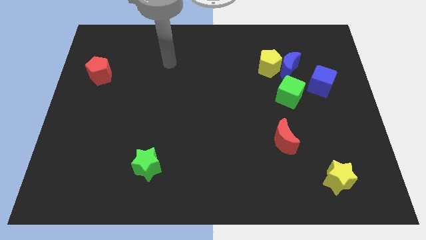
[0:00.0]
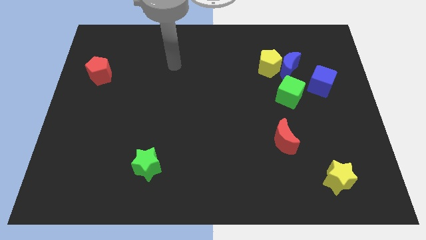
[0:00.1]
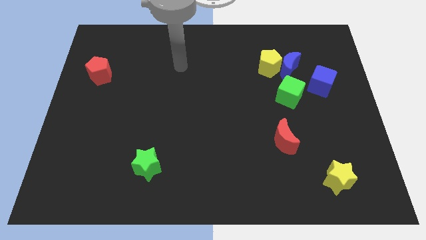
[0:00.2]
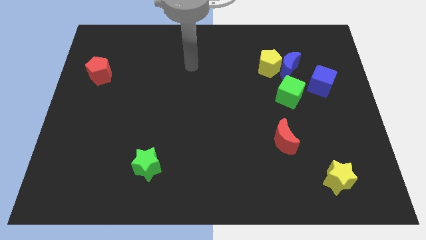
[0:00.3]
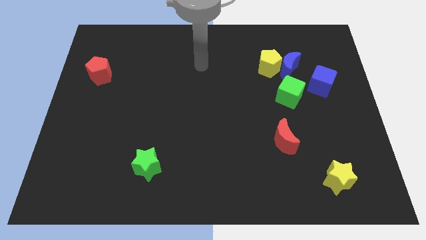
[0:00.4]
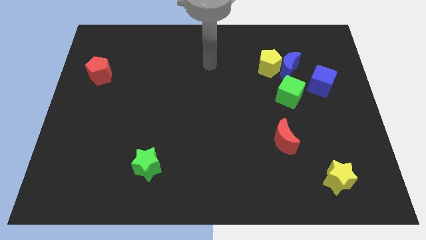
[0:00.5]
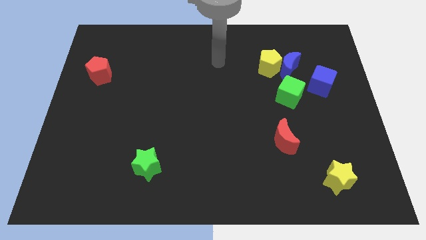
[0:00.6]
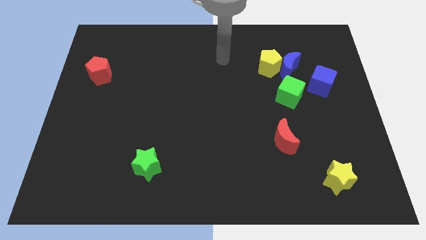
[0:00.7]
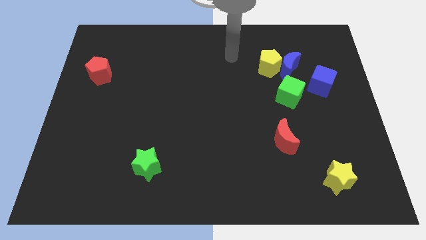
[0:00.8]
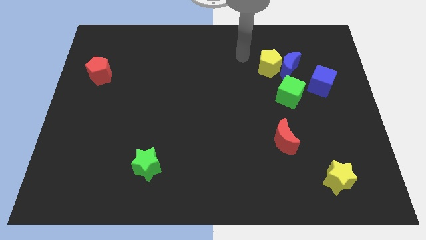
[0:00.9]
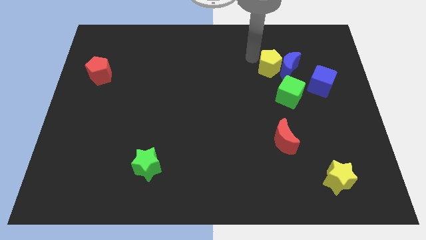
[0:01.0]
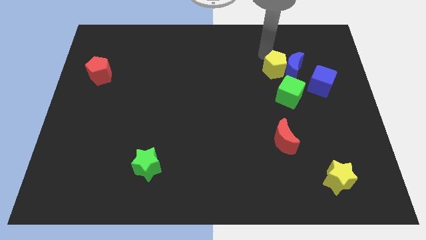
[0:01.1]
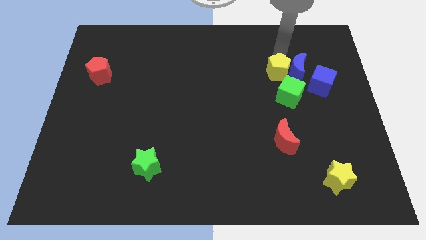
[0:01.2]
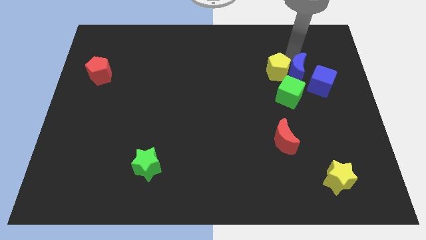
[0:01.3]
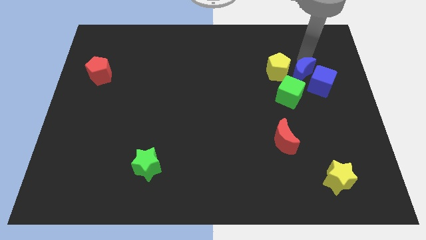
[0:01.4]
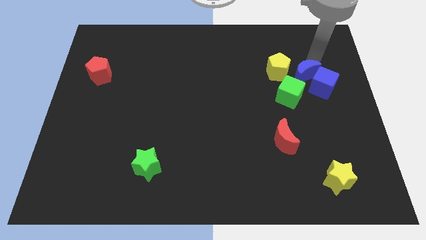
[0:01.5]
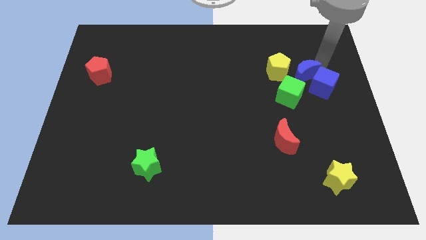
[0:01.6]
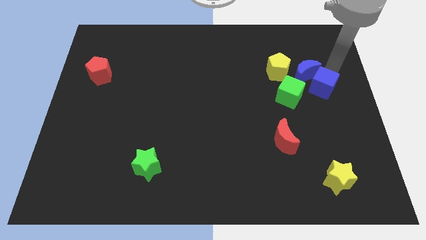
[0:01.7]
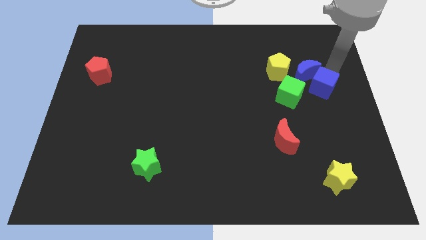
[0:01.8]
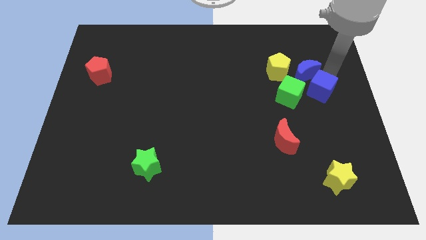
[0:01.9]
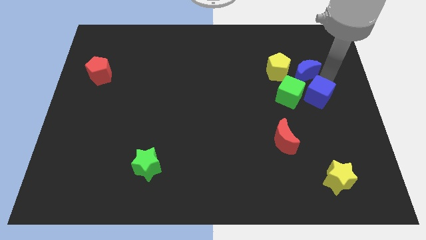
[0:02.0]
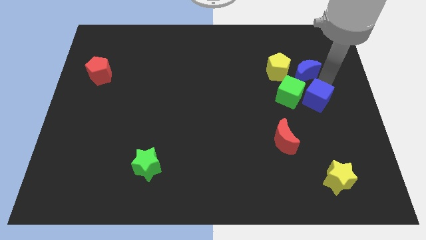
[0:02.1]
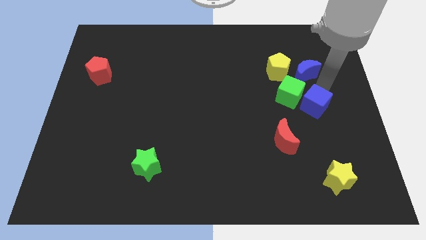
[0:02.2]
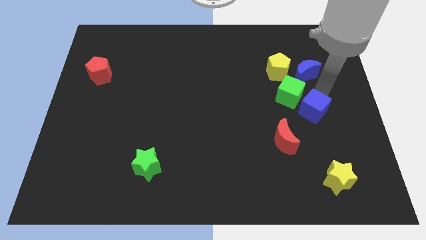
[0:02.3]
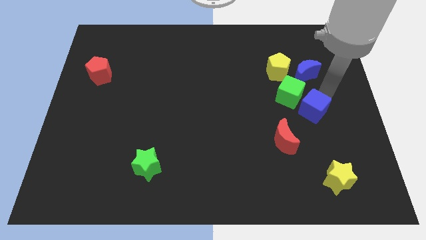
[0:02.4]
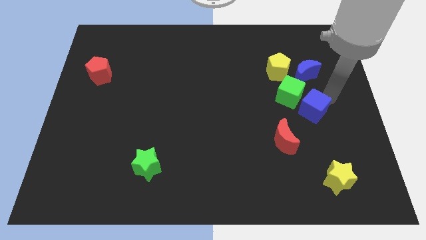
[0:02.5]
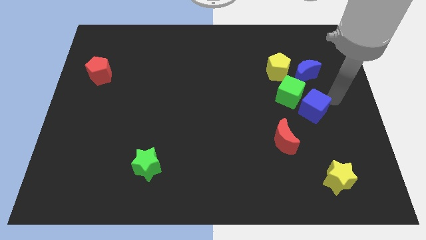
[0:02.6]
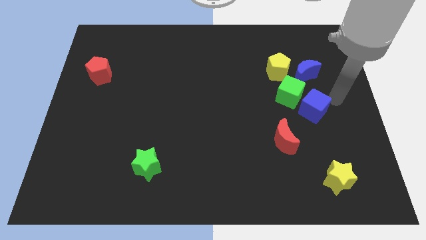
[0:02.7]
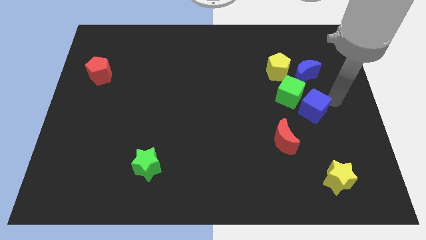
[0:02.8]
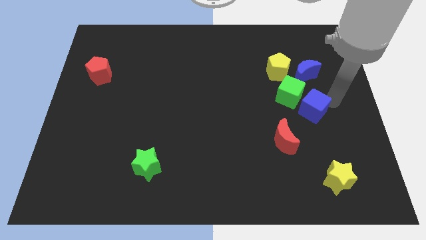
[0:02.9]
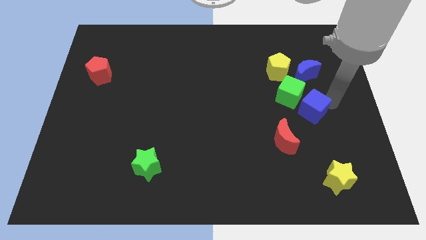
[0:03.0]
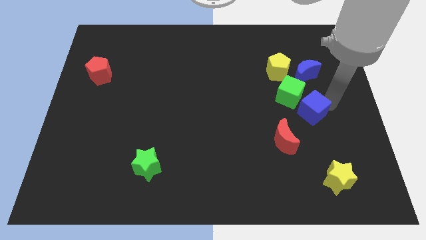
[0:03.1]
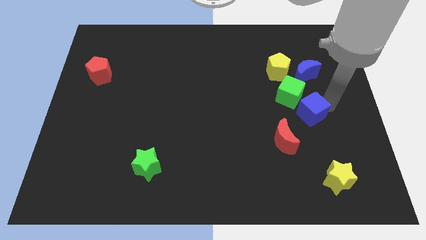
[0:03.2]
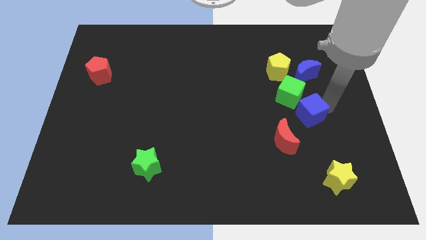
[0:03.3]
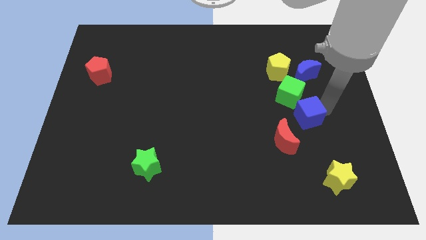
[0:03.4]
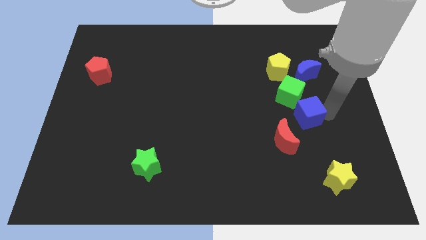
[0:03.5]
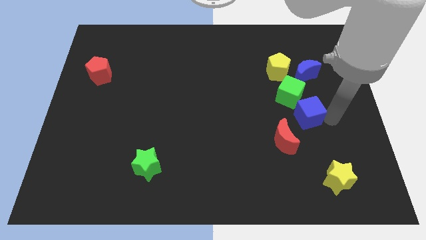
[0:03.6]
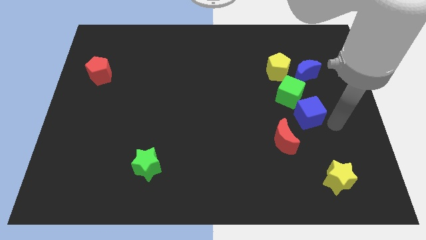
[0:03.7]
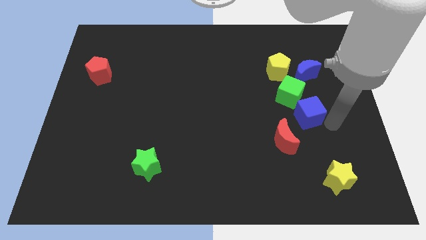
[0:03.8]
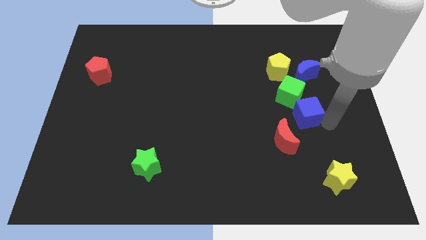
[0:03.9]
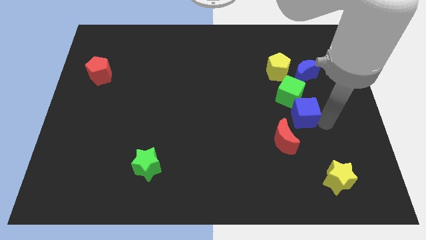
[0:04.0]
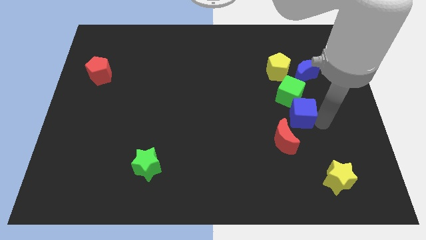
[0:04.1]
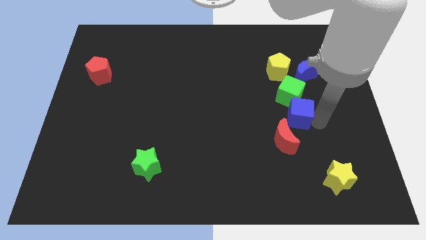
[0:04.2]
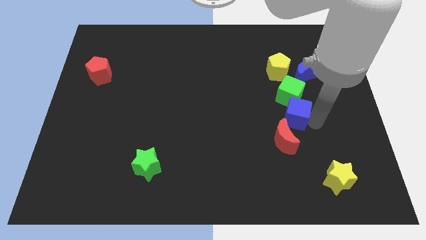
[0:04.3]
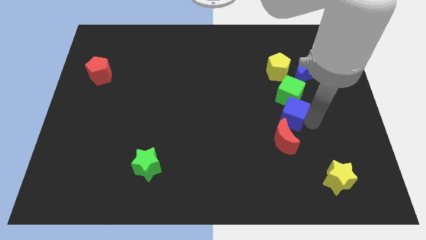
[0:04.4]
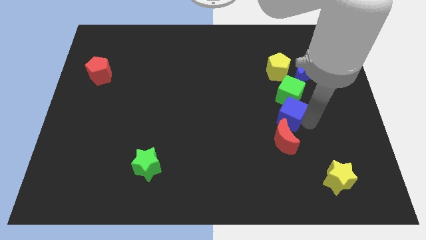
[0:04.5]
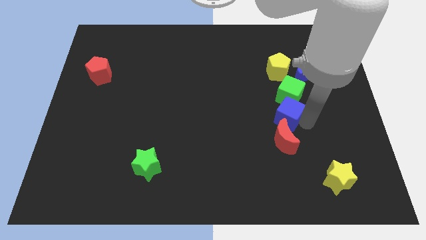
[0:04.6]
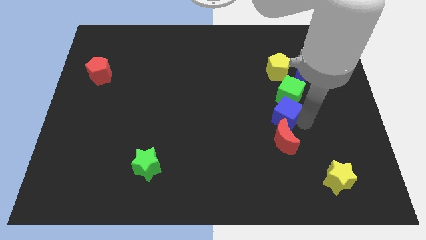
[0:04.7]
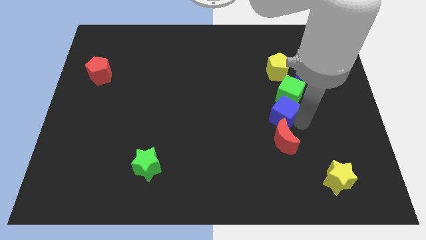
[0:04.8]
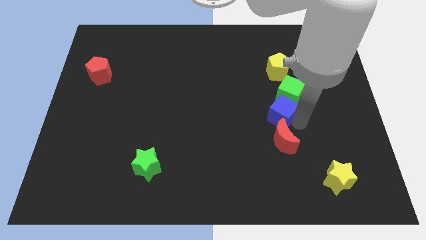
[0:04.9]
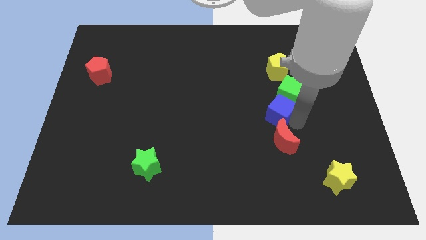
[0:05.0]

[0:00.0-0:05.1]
move the blue cube left slightly

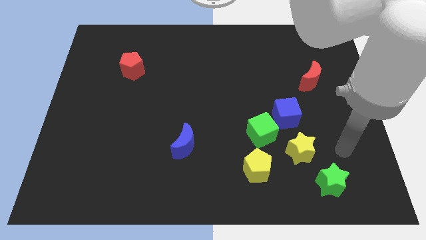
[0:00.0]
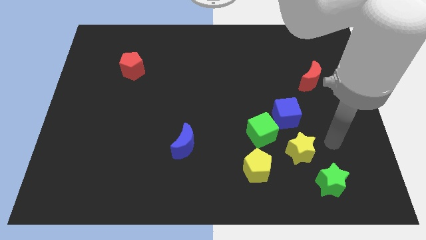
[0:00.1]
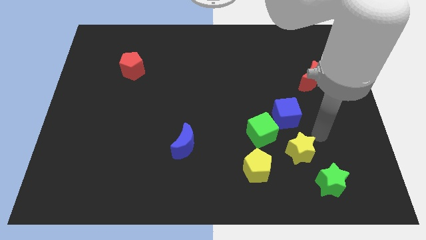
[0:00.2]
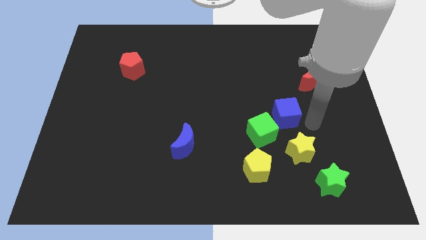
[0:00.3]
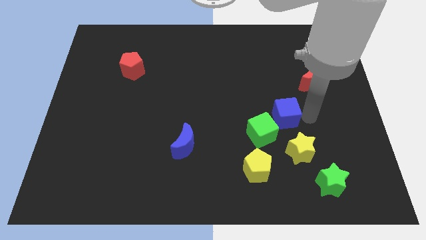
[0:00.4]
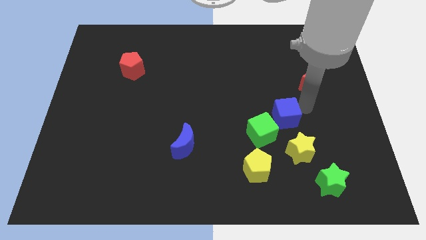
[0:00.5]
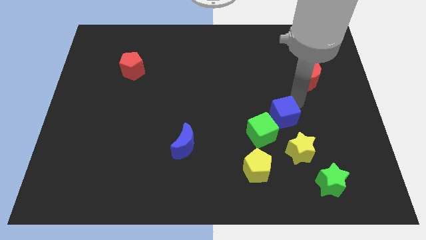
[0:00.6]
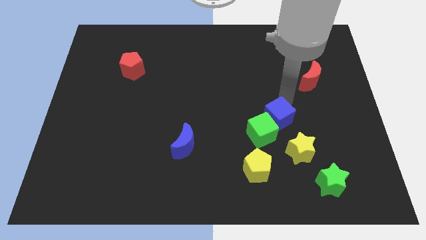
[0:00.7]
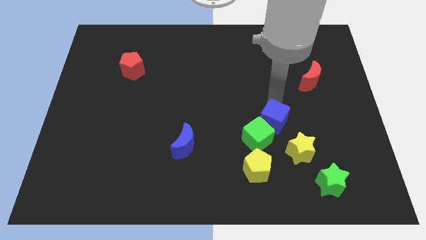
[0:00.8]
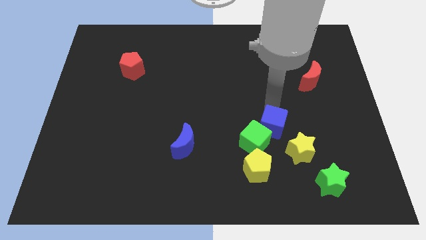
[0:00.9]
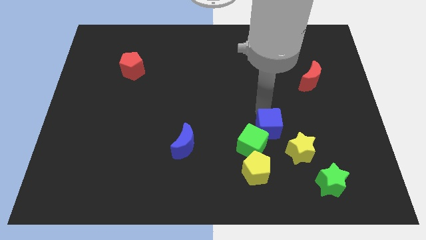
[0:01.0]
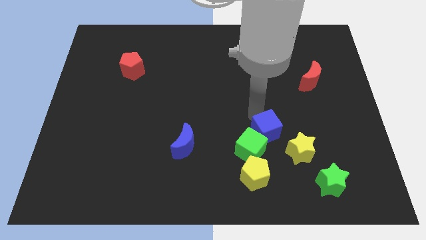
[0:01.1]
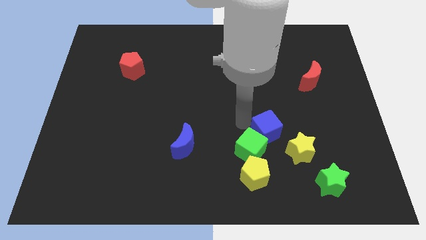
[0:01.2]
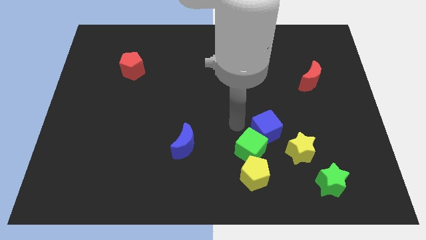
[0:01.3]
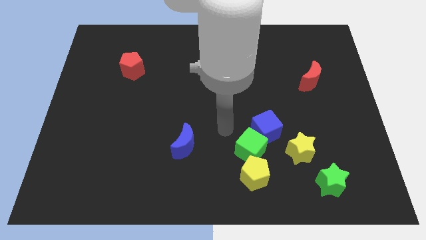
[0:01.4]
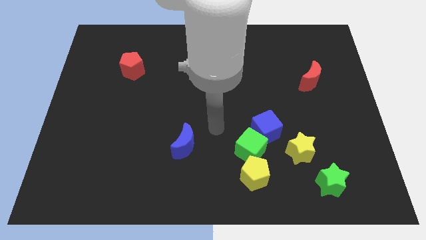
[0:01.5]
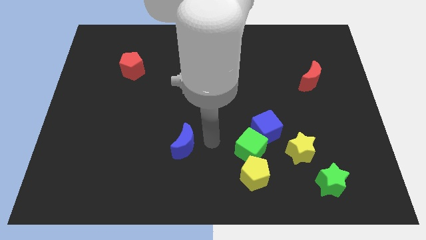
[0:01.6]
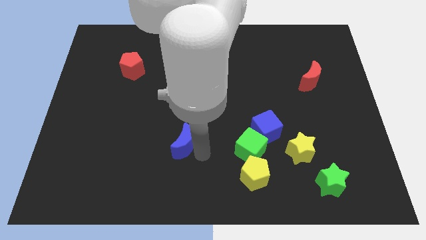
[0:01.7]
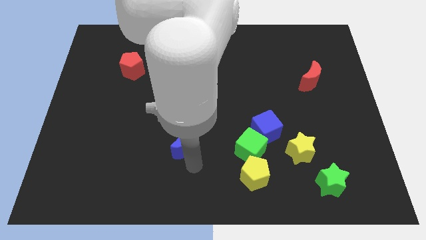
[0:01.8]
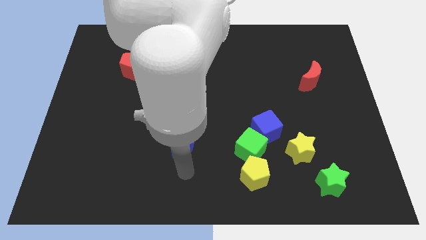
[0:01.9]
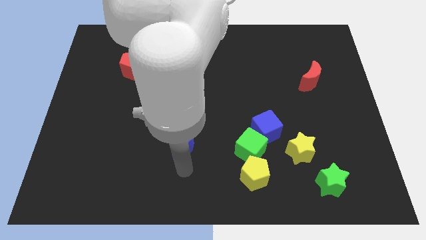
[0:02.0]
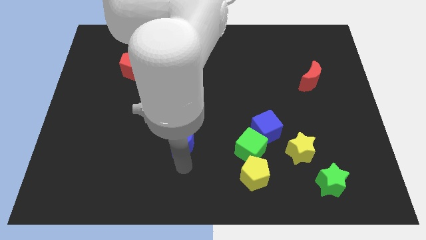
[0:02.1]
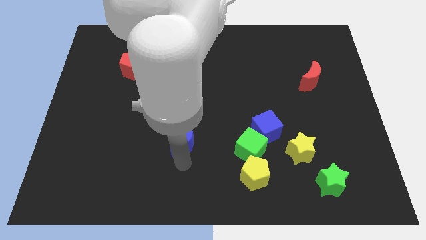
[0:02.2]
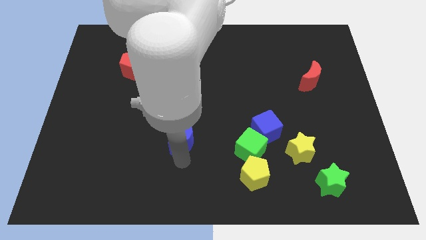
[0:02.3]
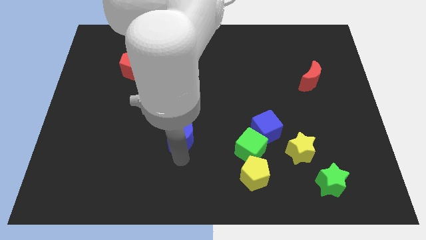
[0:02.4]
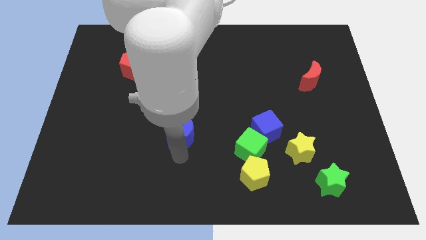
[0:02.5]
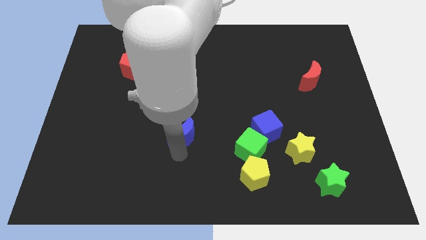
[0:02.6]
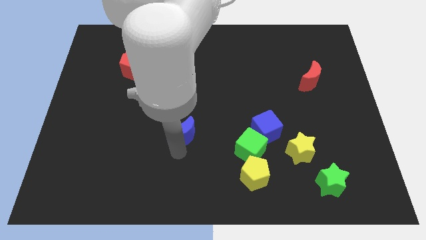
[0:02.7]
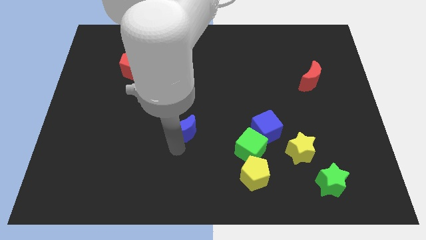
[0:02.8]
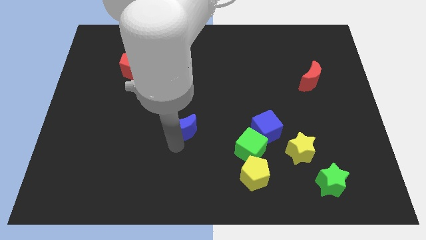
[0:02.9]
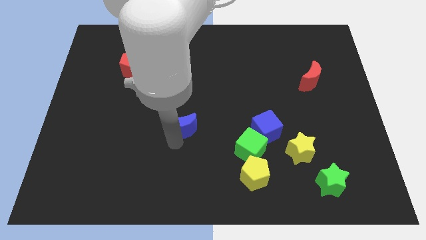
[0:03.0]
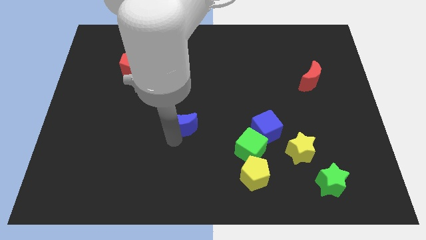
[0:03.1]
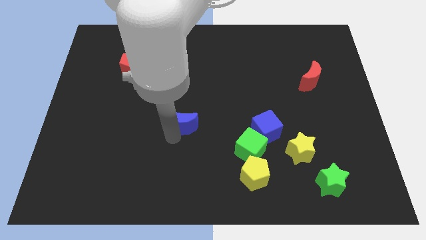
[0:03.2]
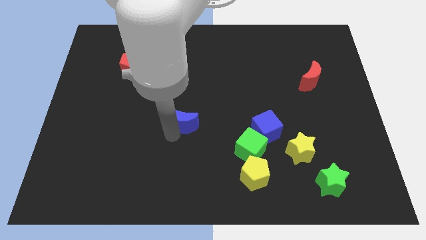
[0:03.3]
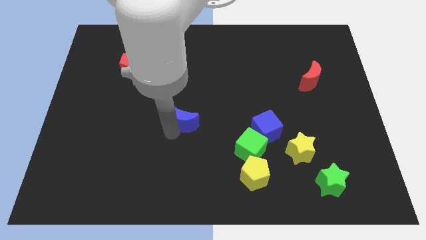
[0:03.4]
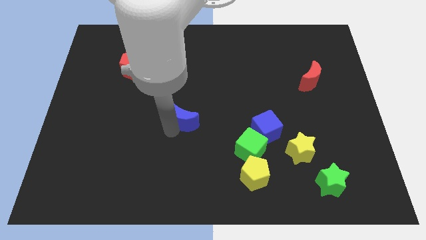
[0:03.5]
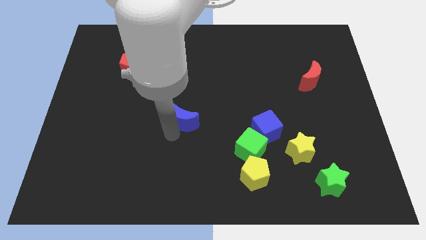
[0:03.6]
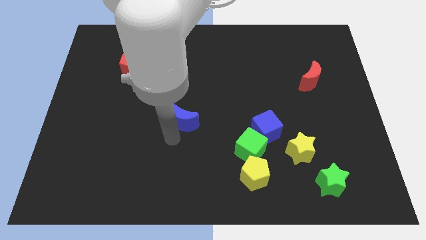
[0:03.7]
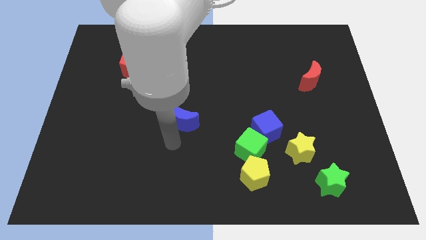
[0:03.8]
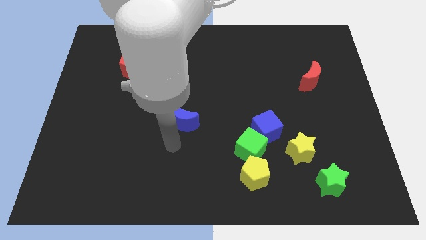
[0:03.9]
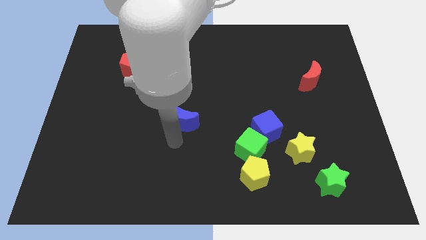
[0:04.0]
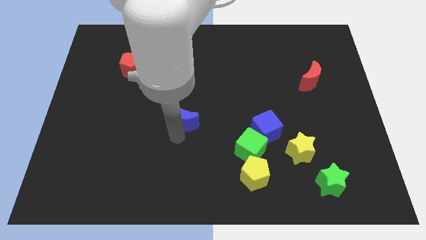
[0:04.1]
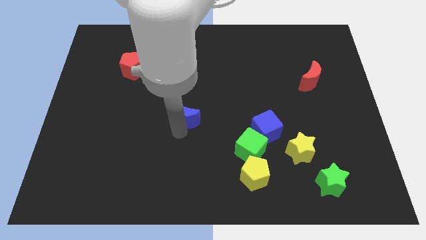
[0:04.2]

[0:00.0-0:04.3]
slightly move the blue moon upwards
